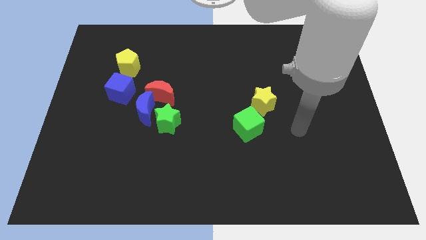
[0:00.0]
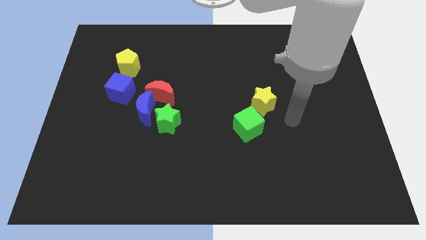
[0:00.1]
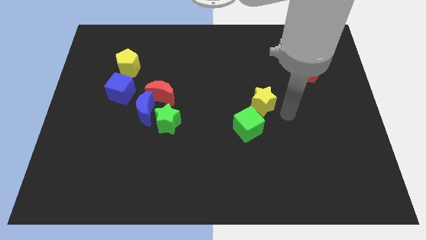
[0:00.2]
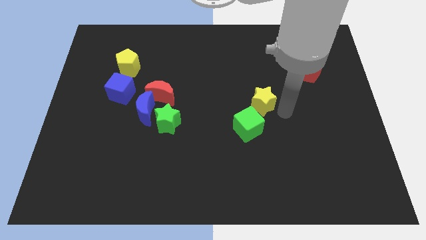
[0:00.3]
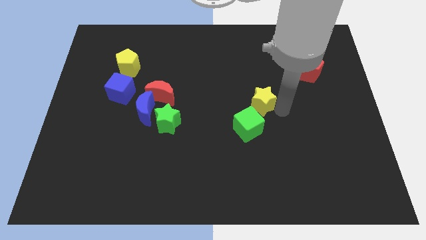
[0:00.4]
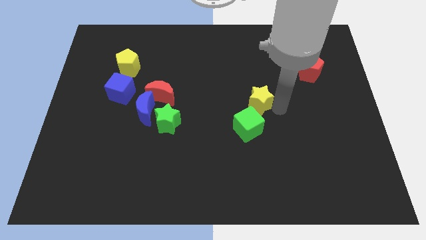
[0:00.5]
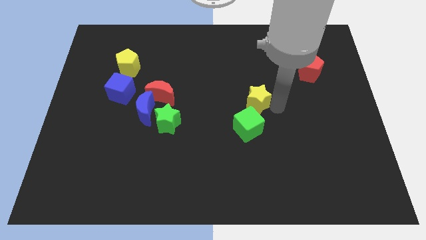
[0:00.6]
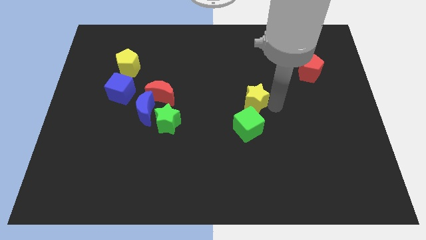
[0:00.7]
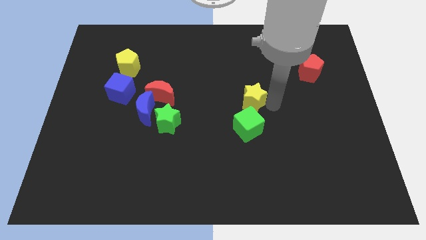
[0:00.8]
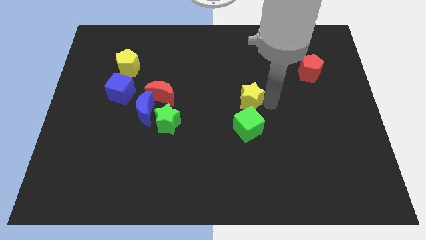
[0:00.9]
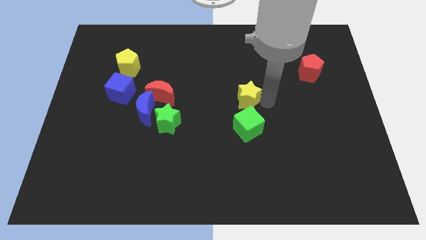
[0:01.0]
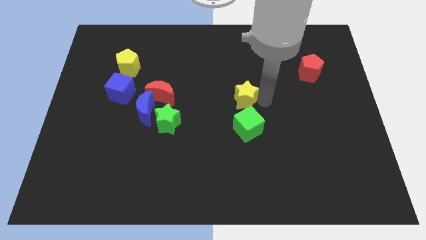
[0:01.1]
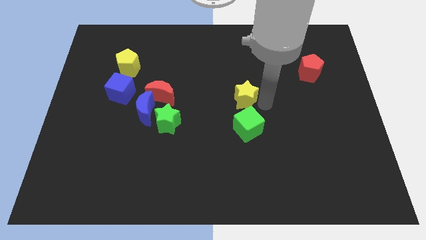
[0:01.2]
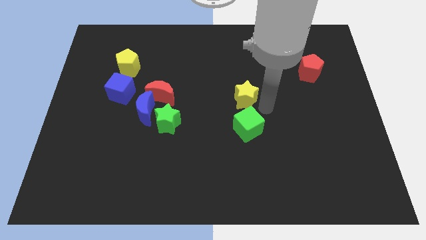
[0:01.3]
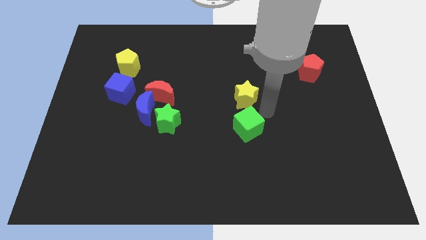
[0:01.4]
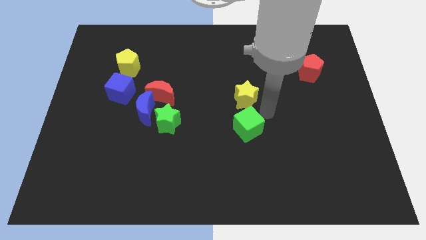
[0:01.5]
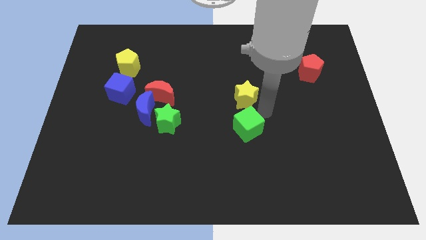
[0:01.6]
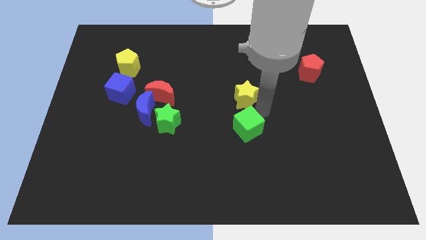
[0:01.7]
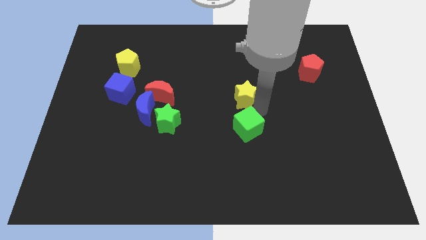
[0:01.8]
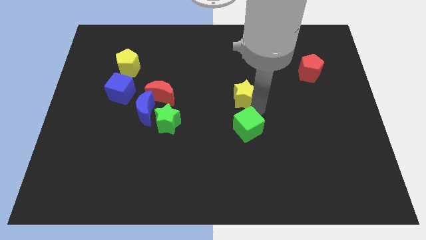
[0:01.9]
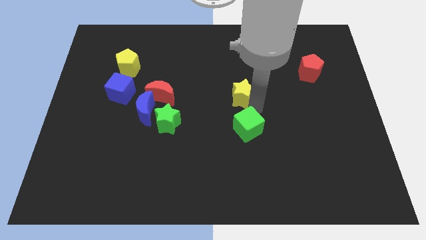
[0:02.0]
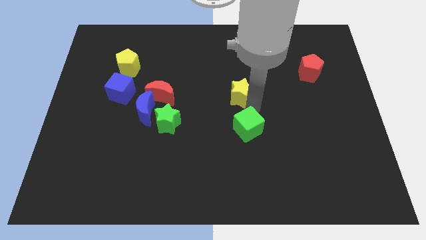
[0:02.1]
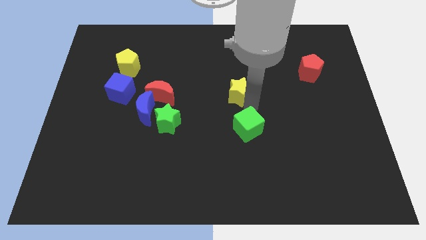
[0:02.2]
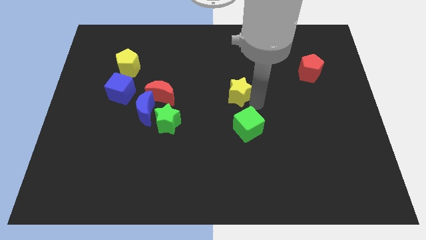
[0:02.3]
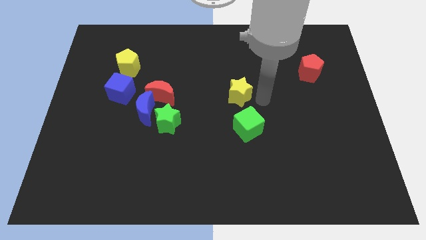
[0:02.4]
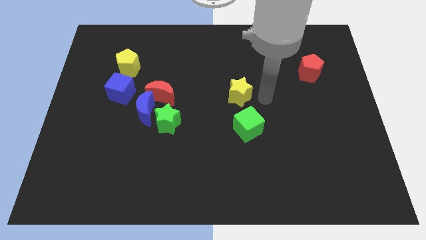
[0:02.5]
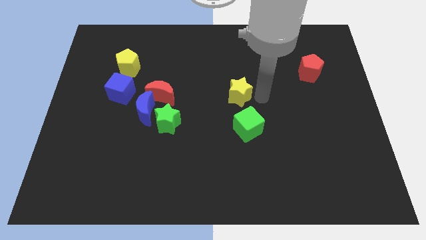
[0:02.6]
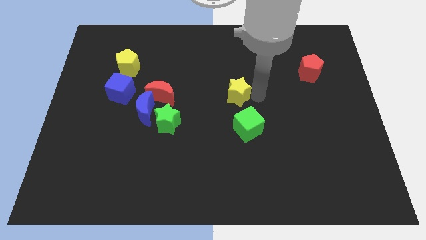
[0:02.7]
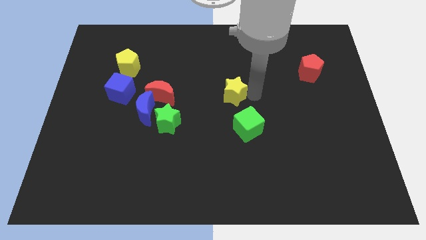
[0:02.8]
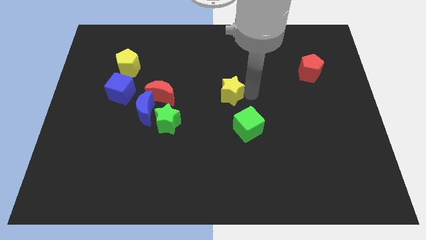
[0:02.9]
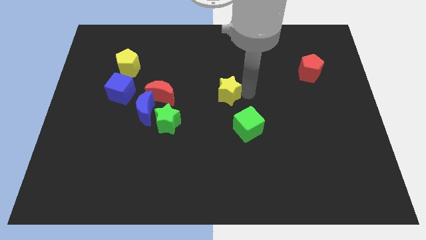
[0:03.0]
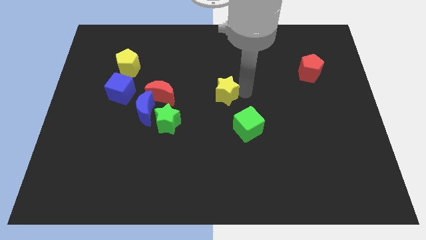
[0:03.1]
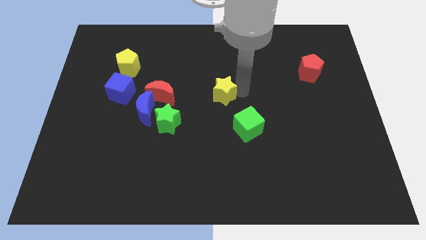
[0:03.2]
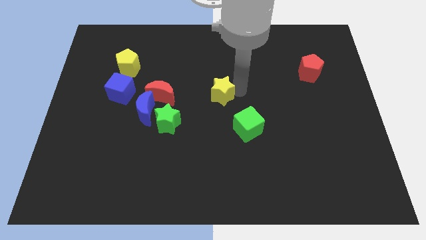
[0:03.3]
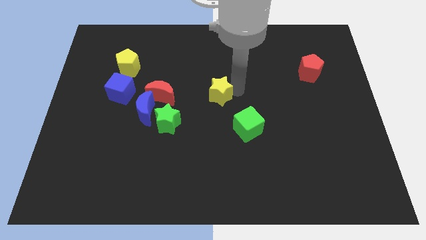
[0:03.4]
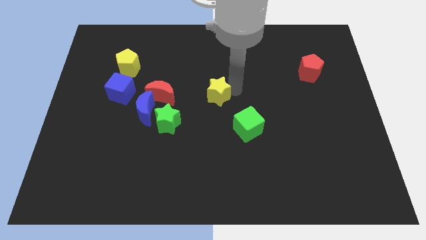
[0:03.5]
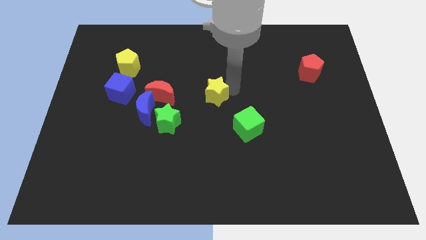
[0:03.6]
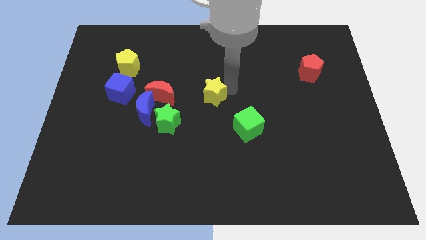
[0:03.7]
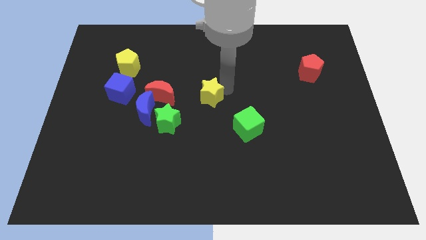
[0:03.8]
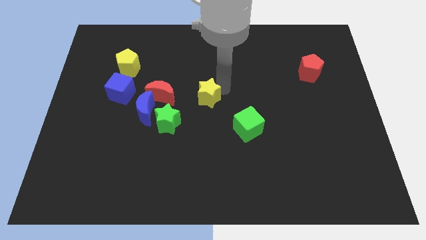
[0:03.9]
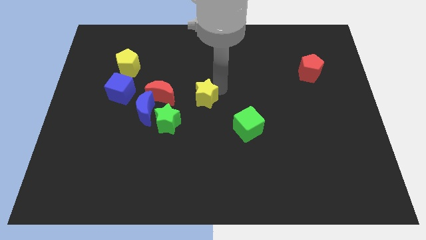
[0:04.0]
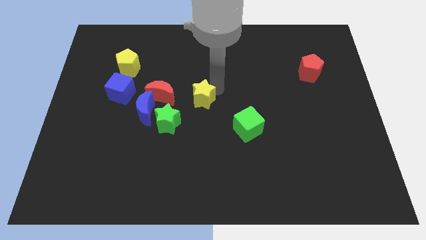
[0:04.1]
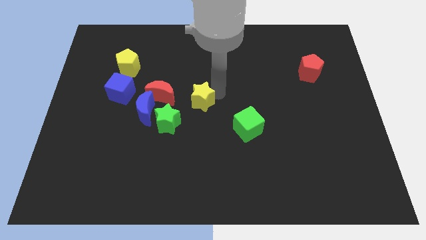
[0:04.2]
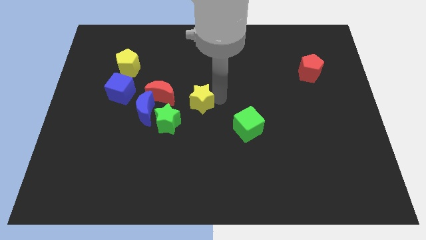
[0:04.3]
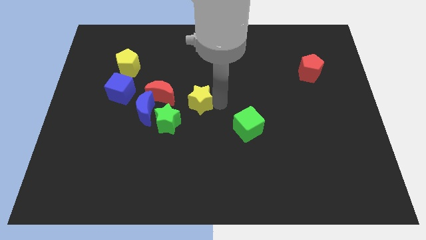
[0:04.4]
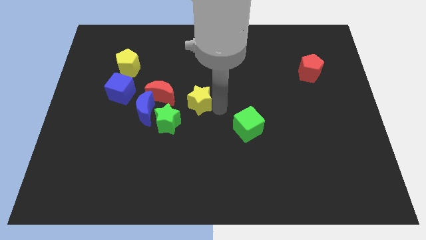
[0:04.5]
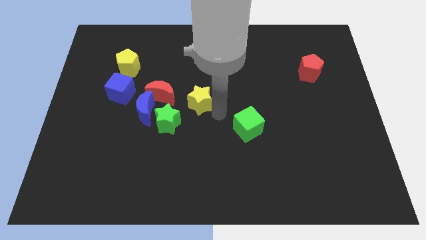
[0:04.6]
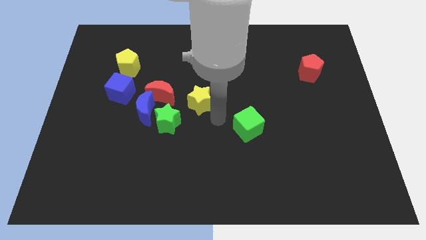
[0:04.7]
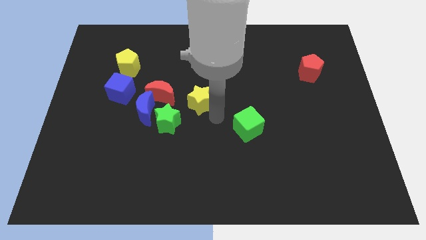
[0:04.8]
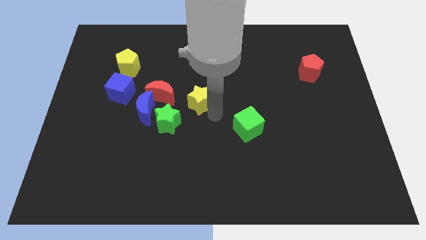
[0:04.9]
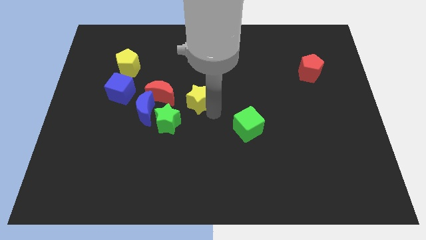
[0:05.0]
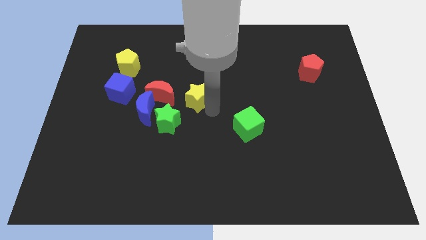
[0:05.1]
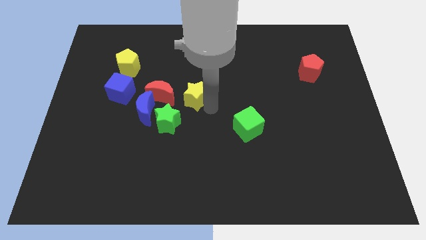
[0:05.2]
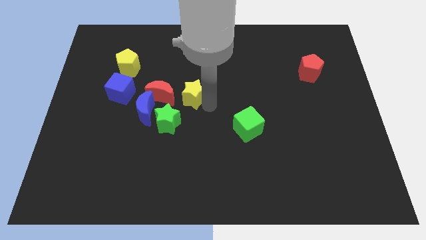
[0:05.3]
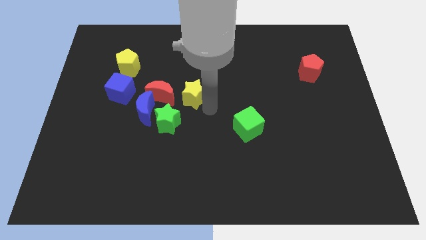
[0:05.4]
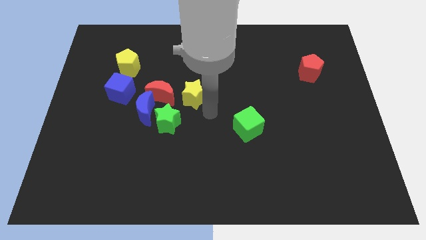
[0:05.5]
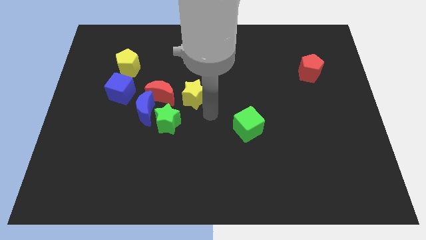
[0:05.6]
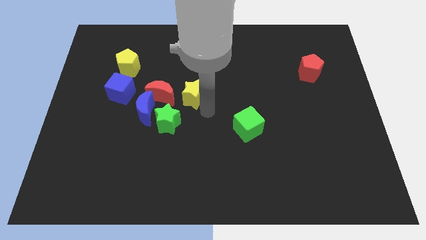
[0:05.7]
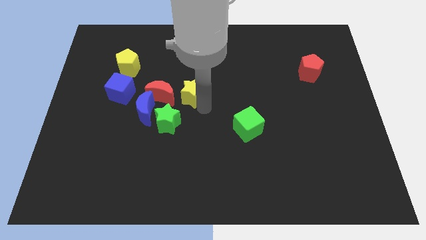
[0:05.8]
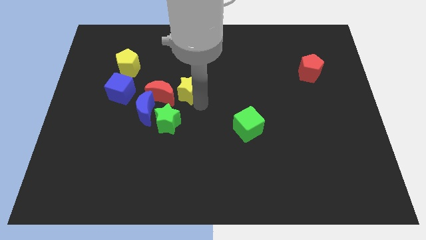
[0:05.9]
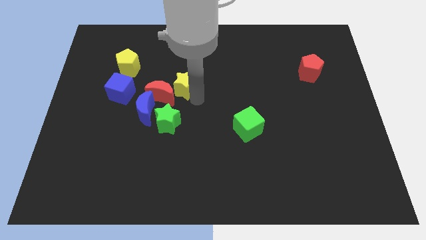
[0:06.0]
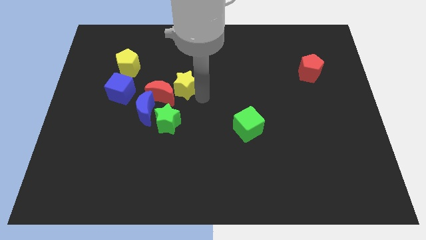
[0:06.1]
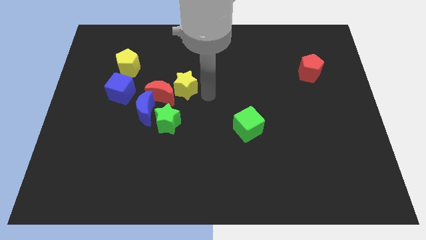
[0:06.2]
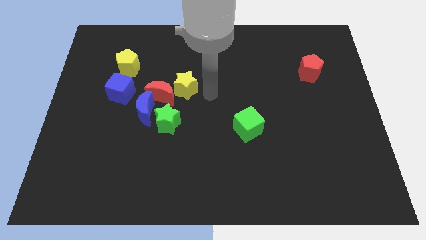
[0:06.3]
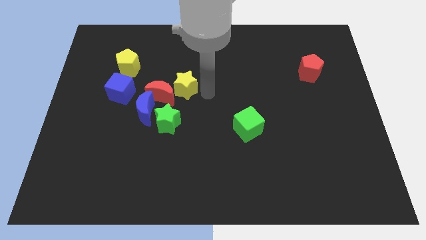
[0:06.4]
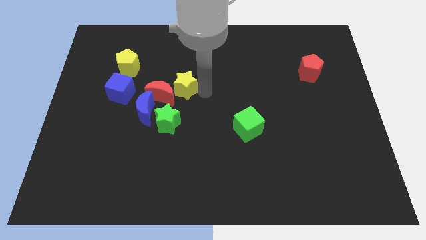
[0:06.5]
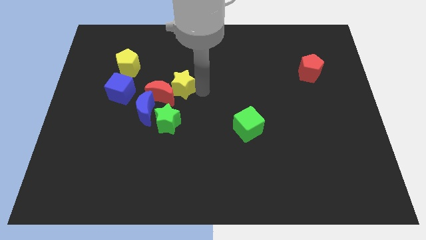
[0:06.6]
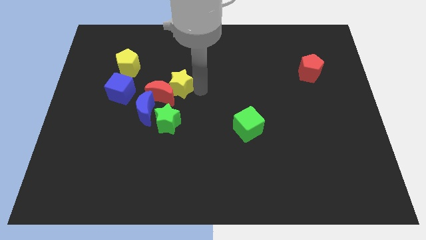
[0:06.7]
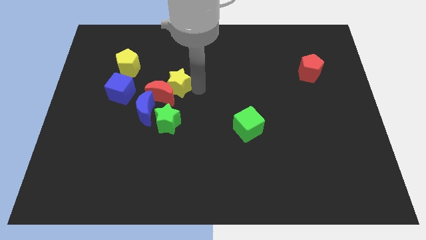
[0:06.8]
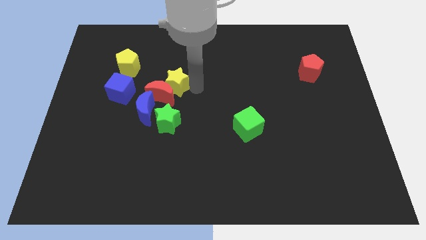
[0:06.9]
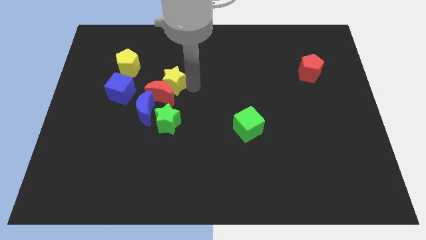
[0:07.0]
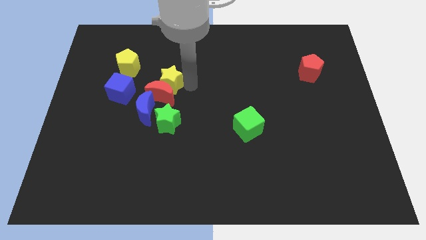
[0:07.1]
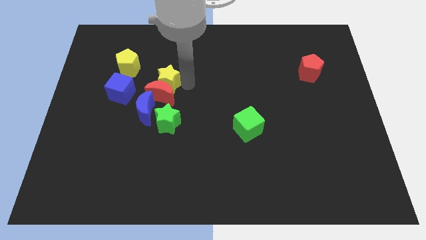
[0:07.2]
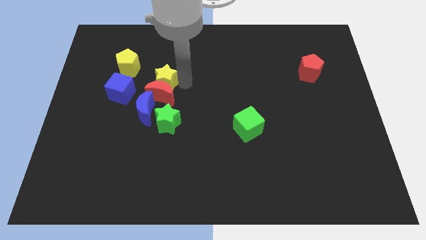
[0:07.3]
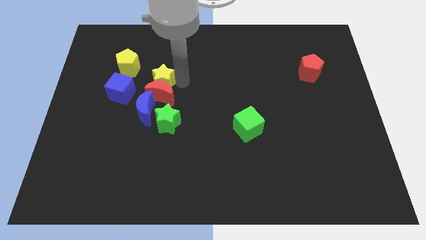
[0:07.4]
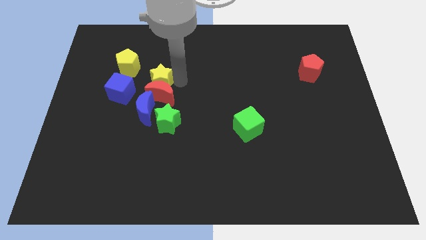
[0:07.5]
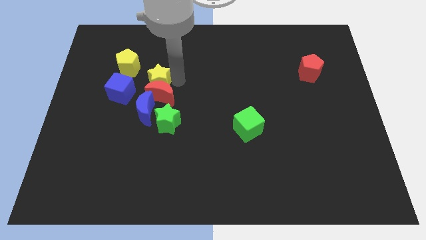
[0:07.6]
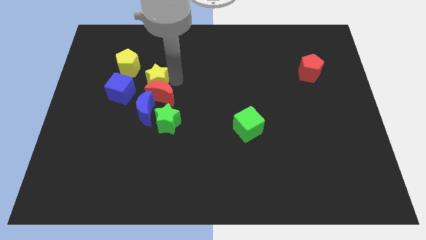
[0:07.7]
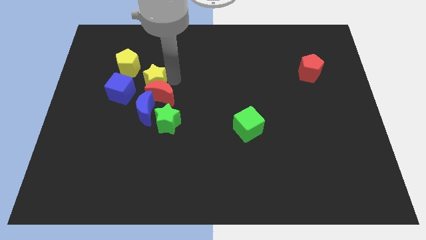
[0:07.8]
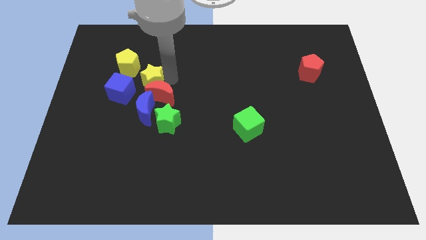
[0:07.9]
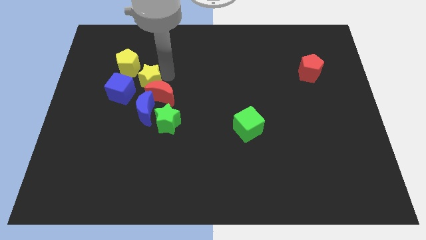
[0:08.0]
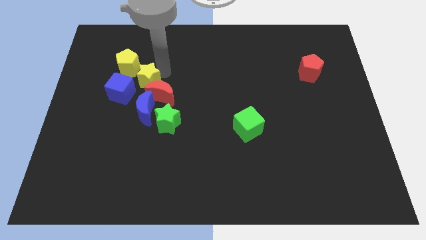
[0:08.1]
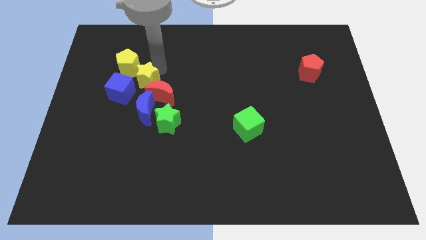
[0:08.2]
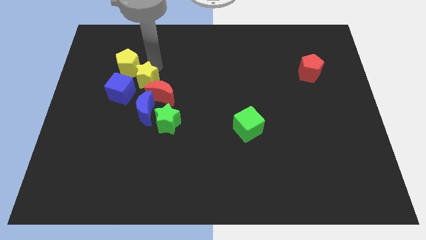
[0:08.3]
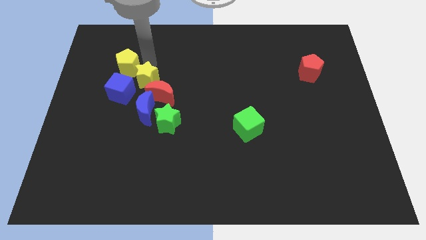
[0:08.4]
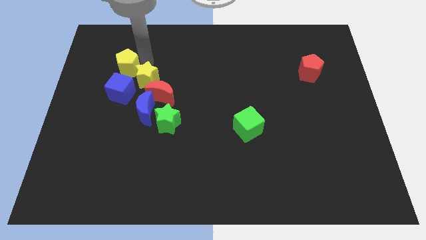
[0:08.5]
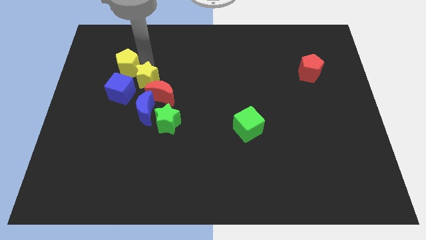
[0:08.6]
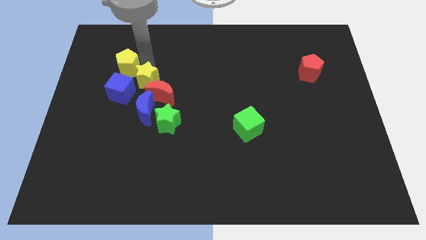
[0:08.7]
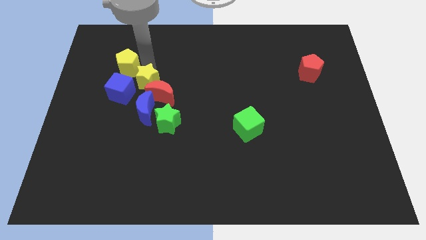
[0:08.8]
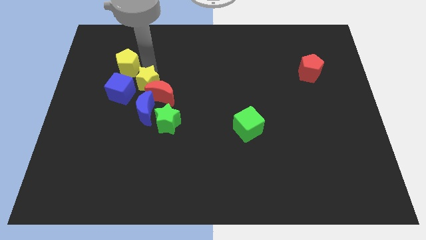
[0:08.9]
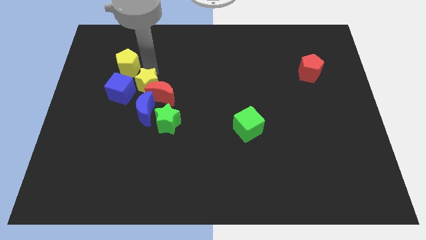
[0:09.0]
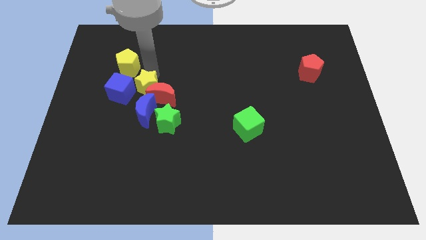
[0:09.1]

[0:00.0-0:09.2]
push the yellow star to the top left side of the green star
